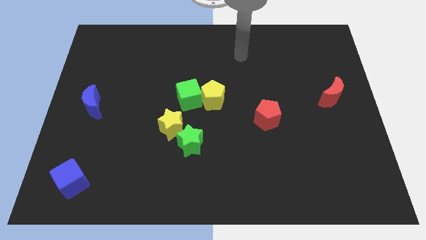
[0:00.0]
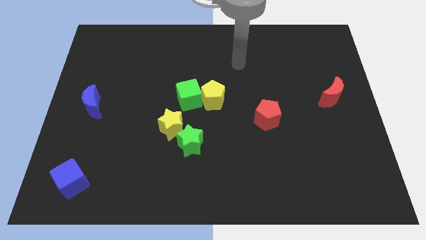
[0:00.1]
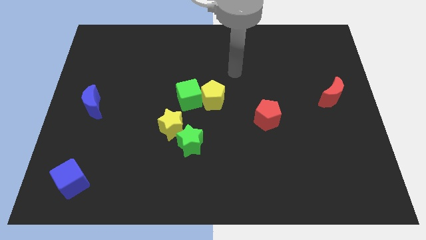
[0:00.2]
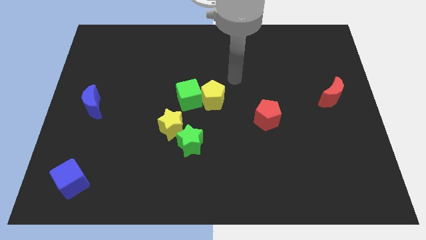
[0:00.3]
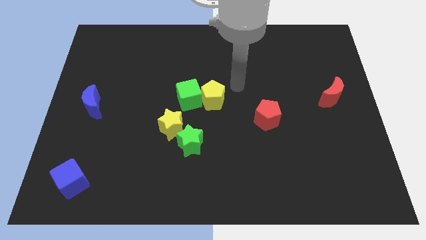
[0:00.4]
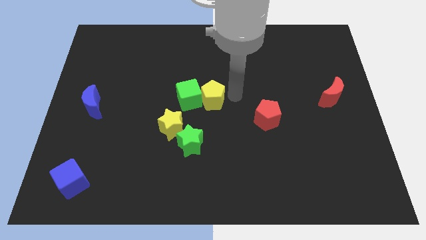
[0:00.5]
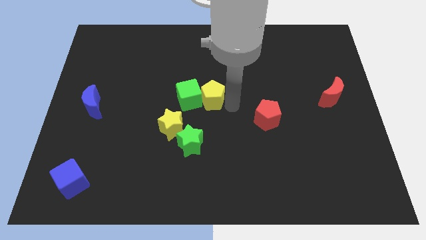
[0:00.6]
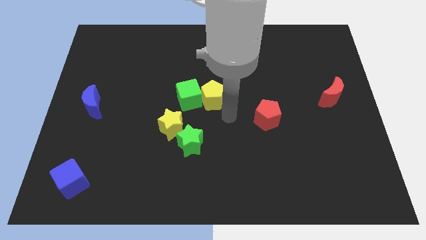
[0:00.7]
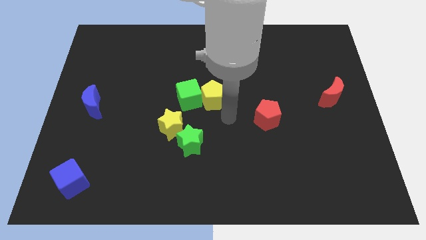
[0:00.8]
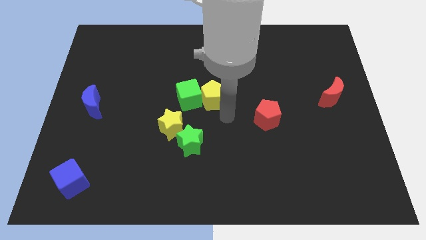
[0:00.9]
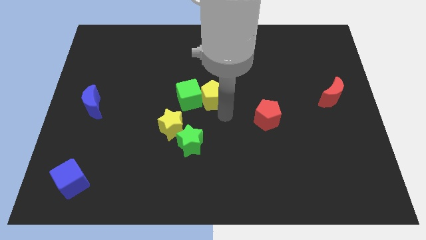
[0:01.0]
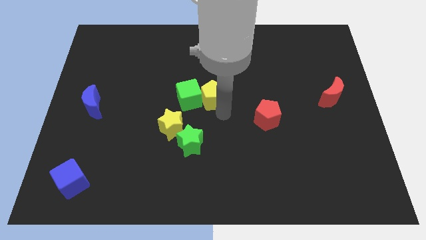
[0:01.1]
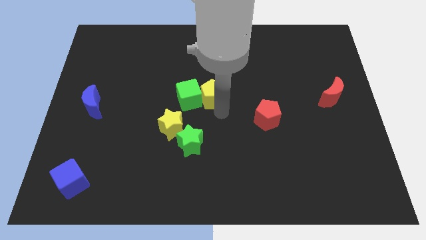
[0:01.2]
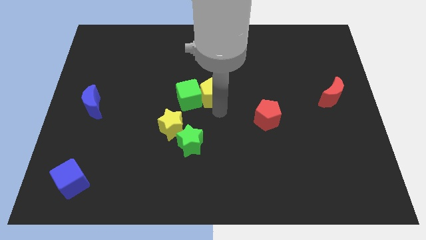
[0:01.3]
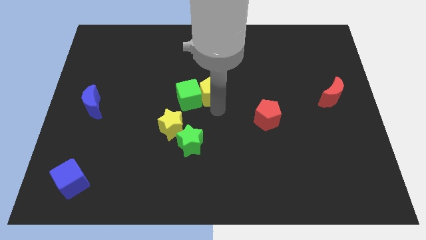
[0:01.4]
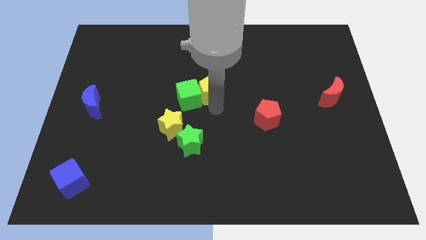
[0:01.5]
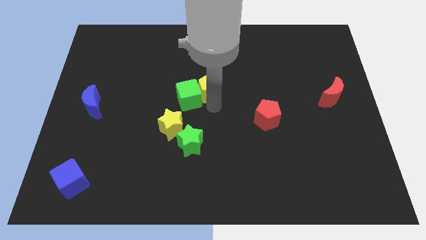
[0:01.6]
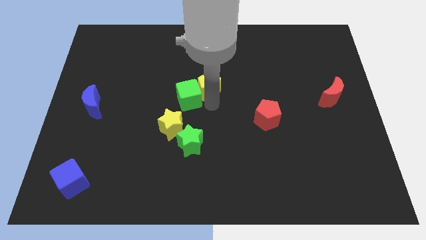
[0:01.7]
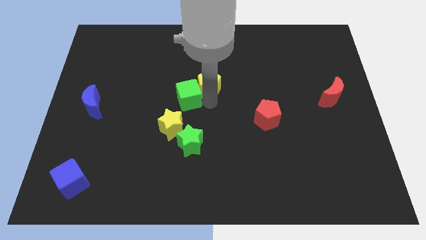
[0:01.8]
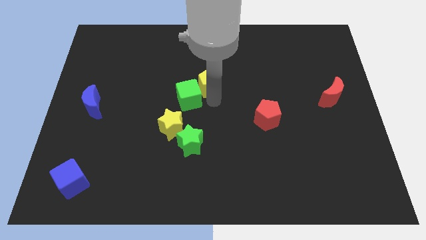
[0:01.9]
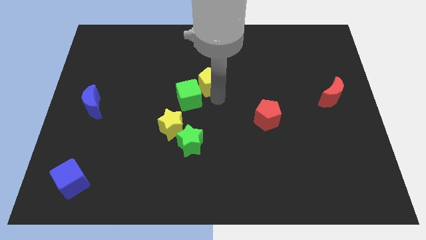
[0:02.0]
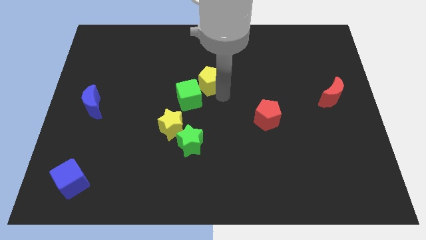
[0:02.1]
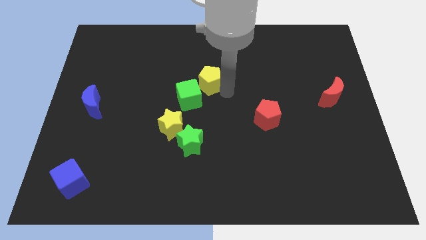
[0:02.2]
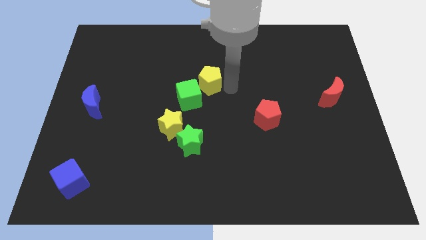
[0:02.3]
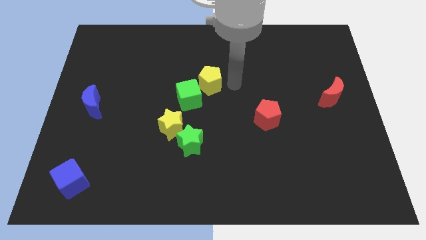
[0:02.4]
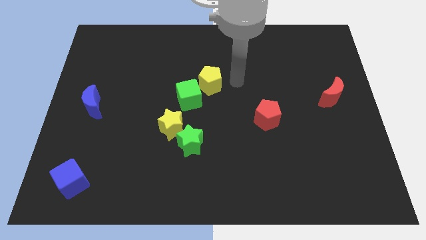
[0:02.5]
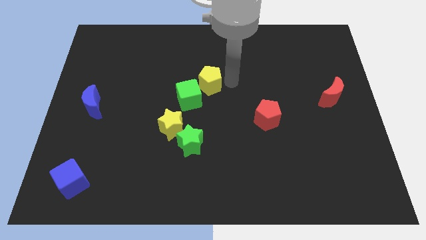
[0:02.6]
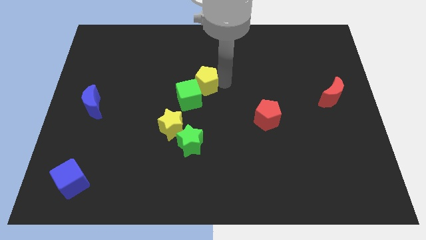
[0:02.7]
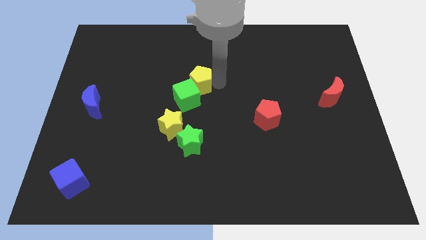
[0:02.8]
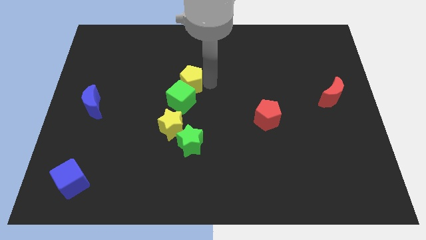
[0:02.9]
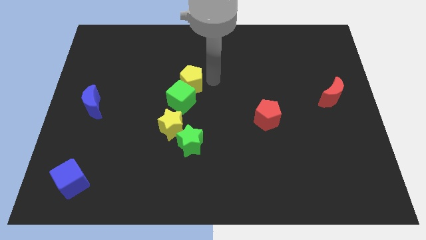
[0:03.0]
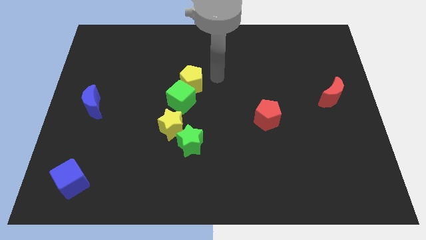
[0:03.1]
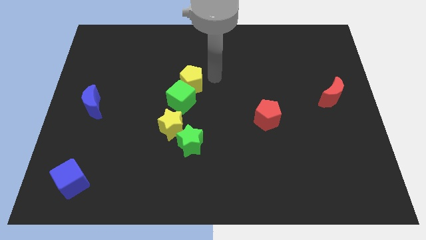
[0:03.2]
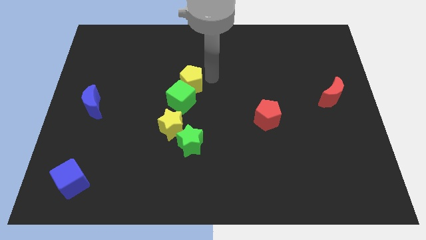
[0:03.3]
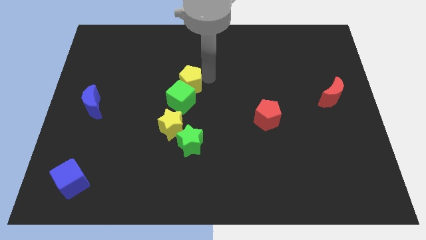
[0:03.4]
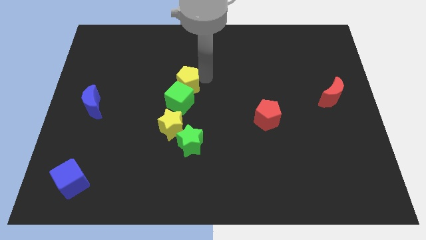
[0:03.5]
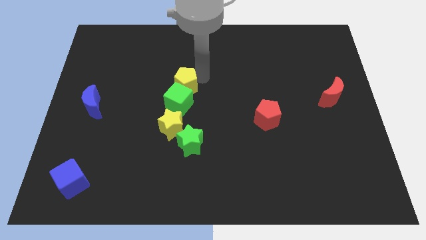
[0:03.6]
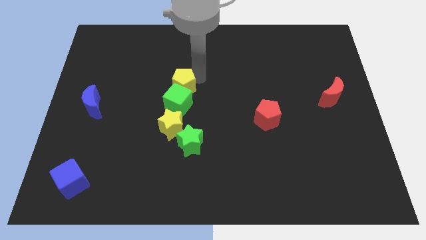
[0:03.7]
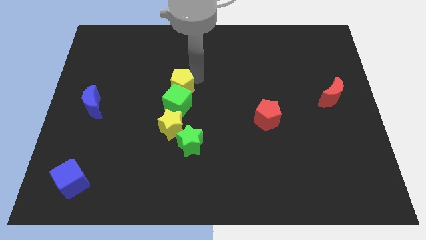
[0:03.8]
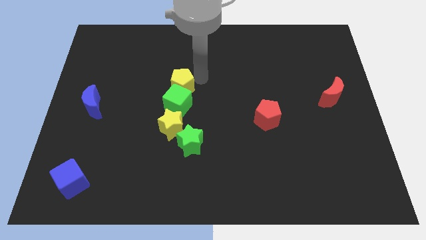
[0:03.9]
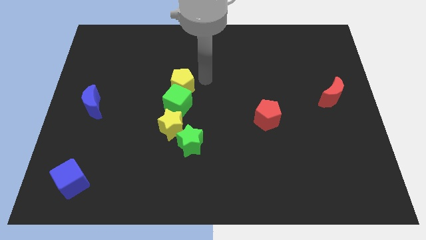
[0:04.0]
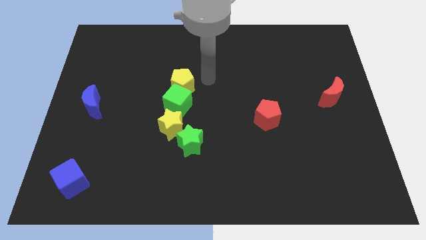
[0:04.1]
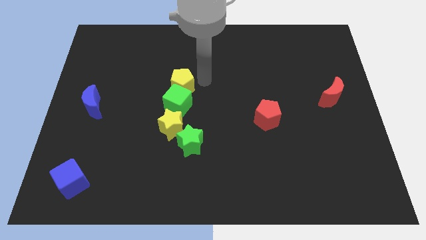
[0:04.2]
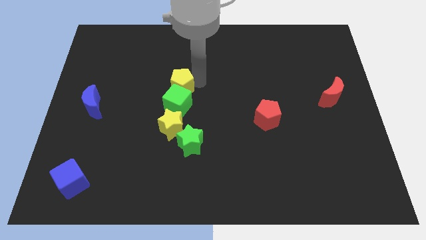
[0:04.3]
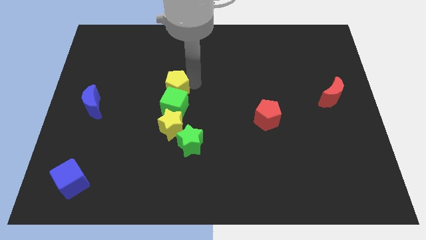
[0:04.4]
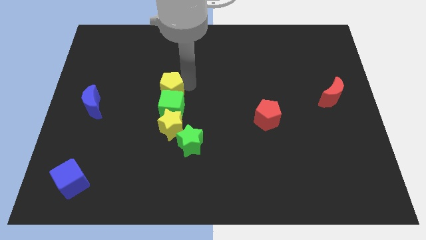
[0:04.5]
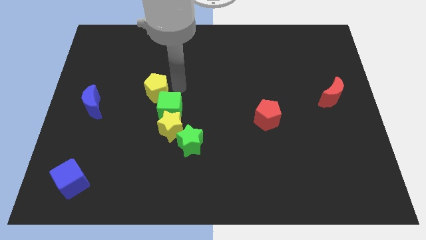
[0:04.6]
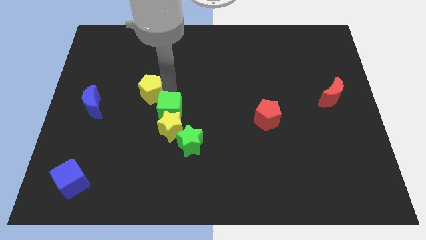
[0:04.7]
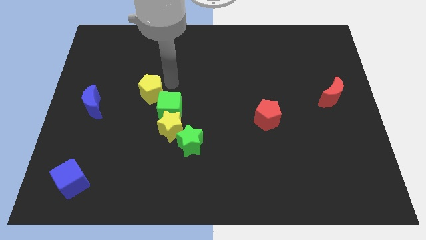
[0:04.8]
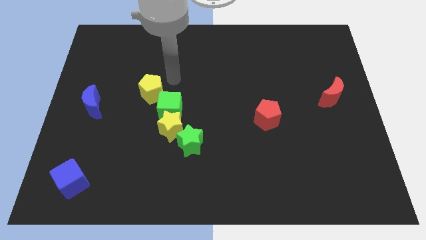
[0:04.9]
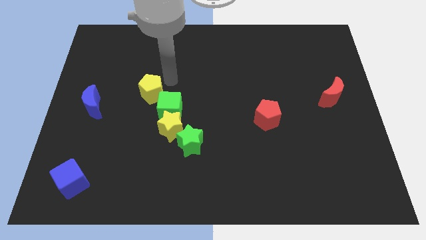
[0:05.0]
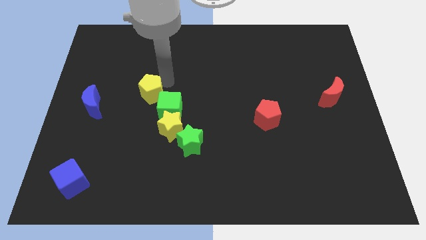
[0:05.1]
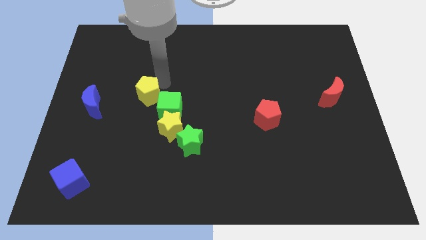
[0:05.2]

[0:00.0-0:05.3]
move the yellow pentagon left of the green cube

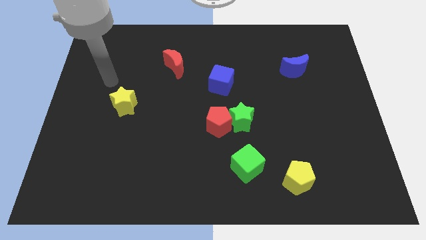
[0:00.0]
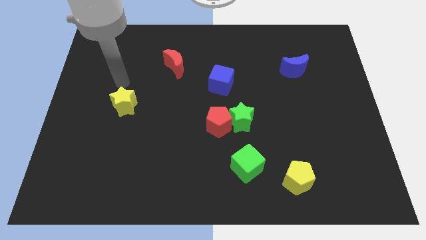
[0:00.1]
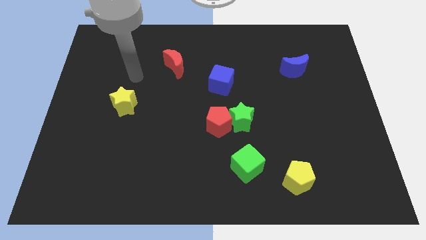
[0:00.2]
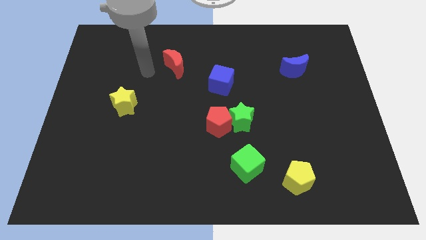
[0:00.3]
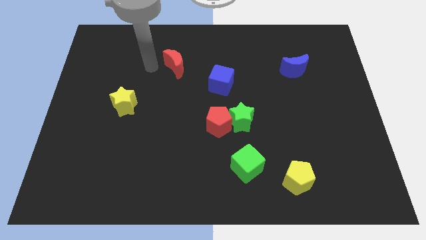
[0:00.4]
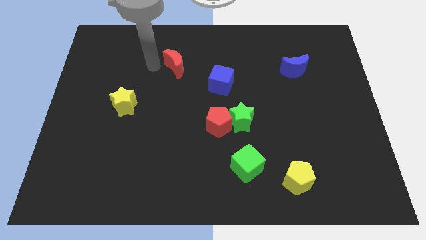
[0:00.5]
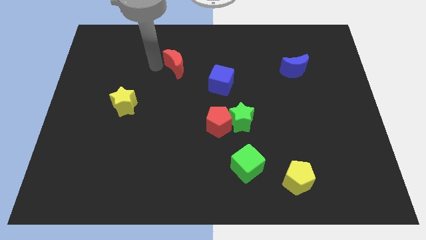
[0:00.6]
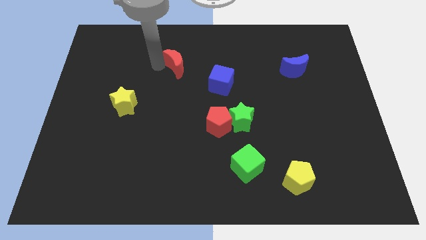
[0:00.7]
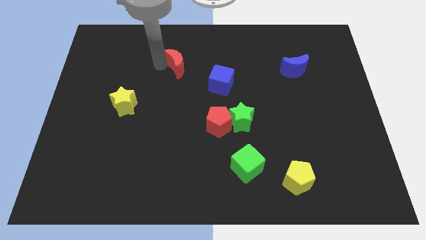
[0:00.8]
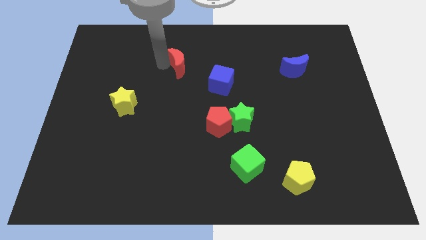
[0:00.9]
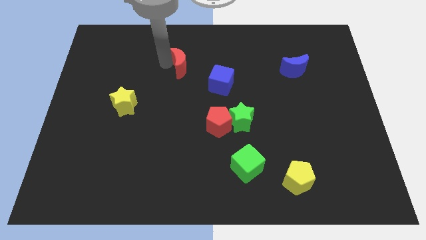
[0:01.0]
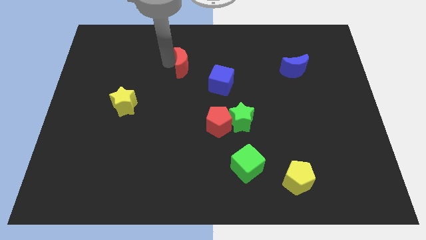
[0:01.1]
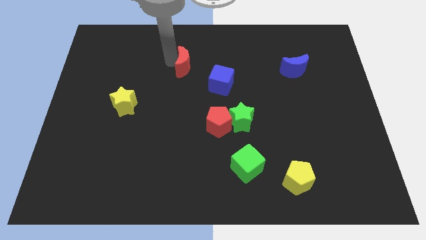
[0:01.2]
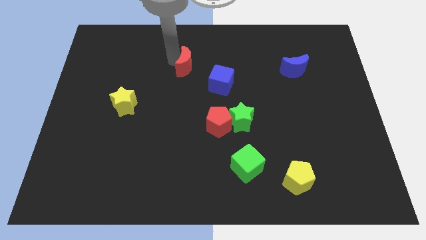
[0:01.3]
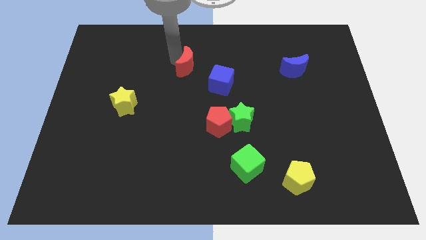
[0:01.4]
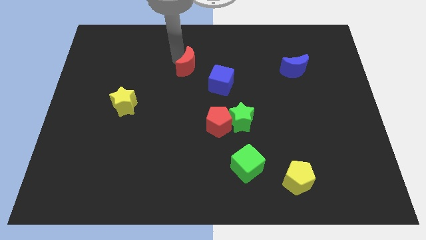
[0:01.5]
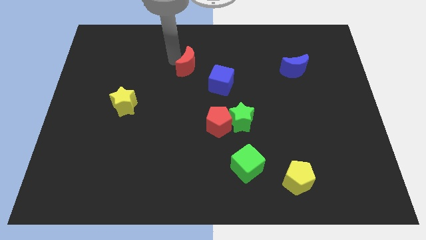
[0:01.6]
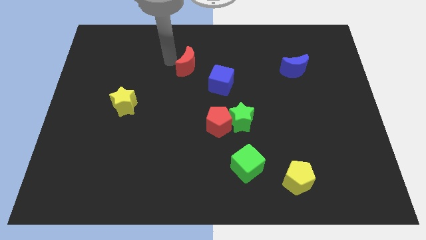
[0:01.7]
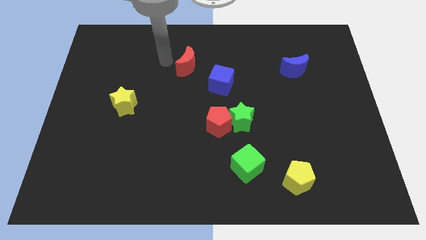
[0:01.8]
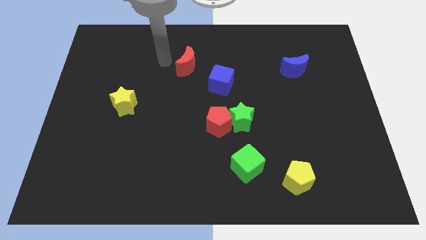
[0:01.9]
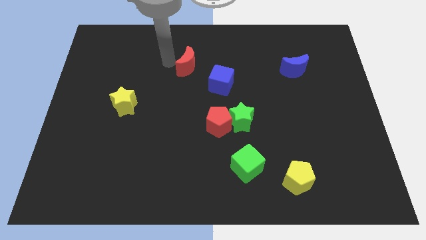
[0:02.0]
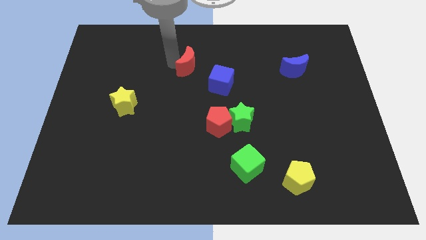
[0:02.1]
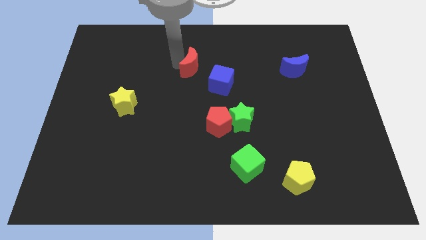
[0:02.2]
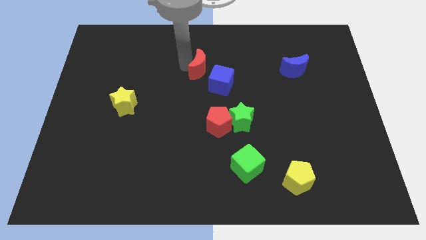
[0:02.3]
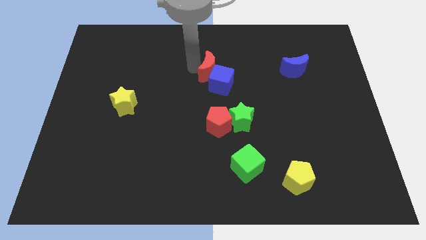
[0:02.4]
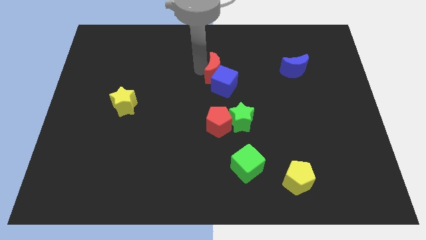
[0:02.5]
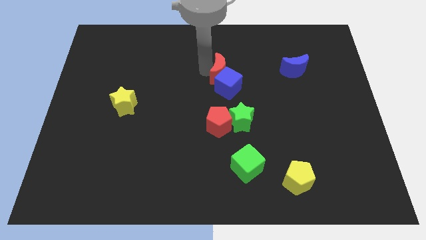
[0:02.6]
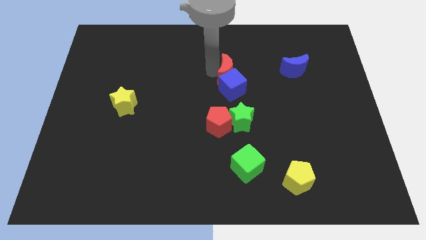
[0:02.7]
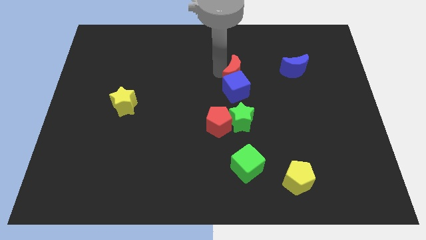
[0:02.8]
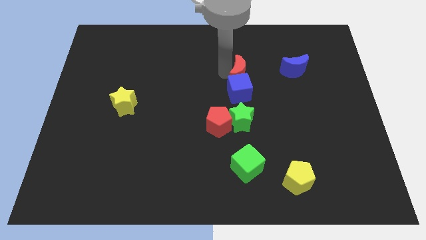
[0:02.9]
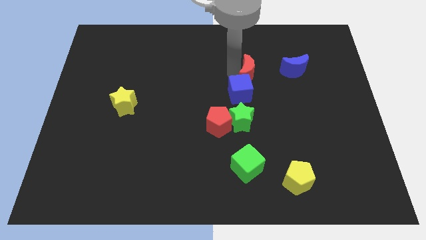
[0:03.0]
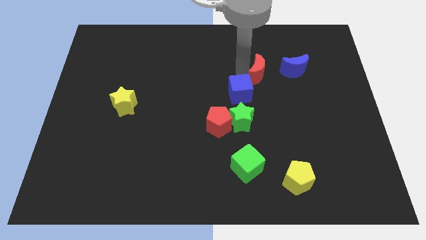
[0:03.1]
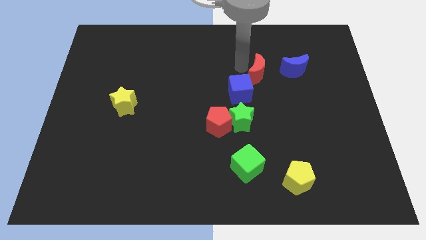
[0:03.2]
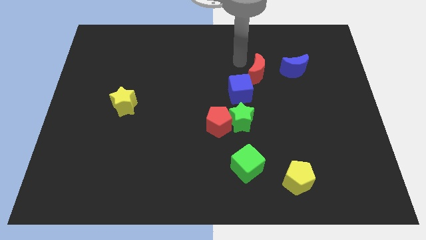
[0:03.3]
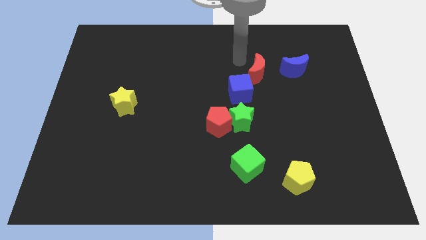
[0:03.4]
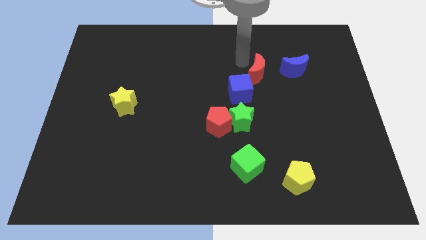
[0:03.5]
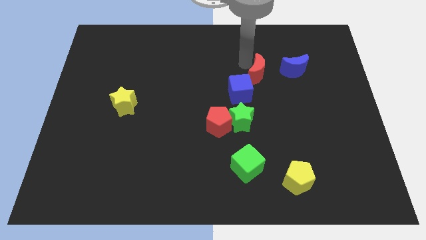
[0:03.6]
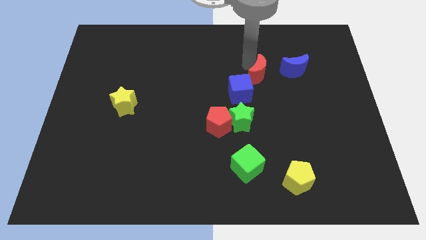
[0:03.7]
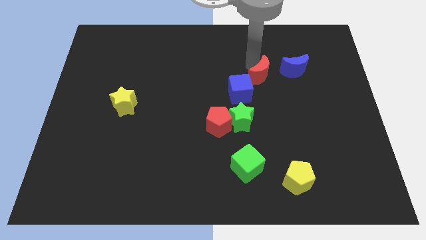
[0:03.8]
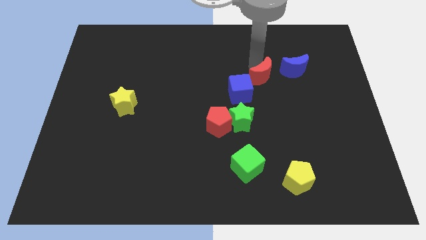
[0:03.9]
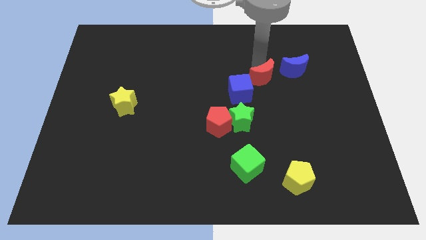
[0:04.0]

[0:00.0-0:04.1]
slide the red moon to the right side of the blue cube
